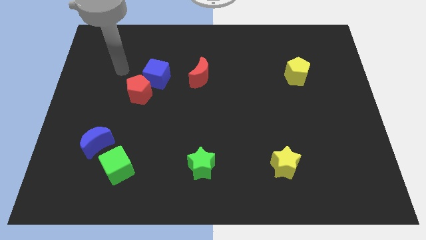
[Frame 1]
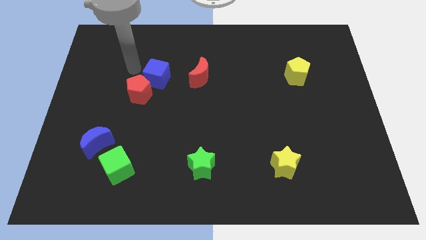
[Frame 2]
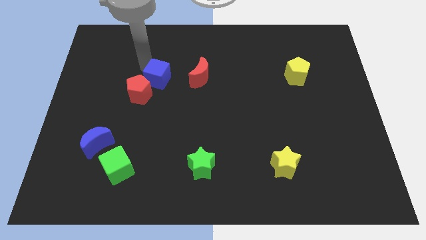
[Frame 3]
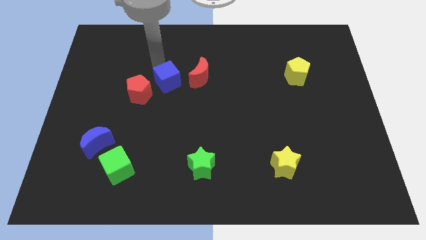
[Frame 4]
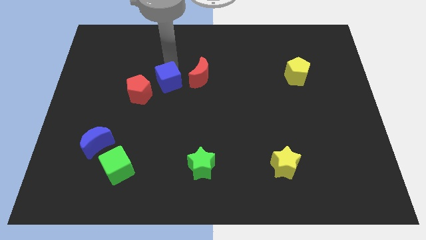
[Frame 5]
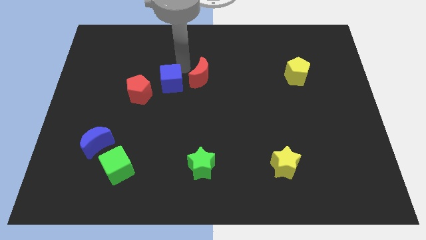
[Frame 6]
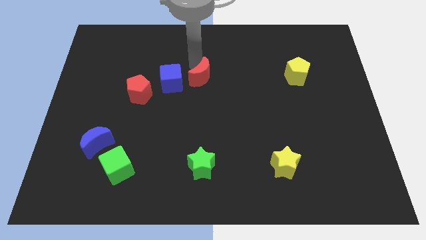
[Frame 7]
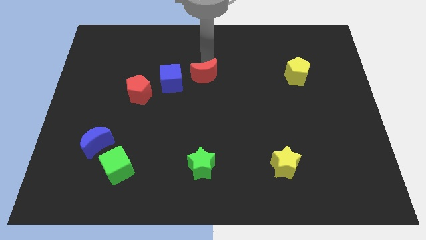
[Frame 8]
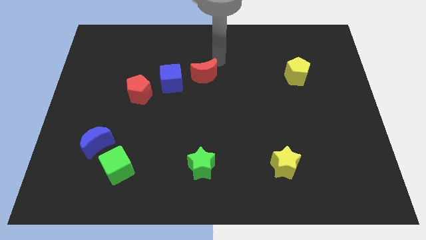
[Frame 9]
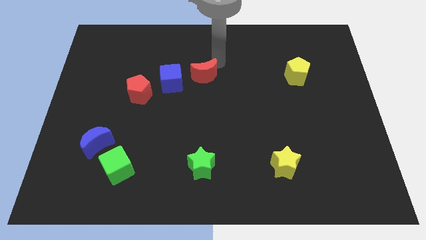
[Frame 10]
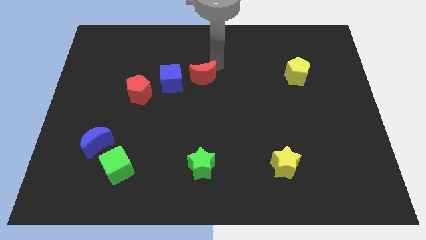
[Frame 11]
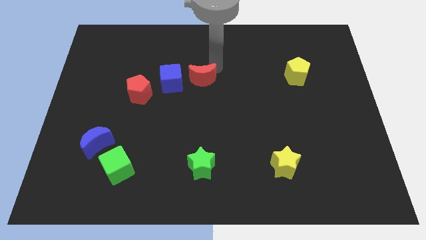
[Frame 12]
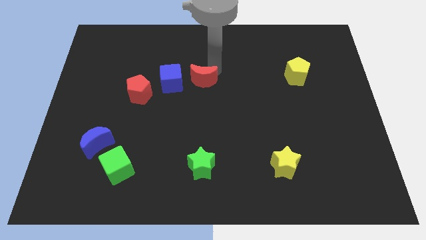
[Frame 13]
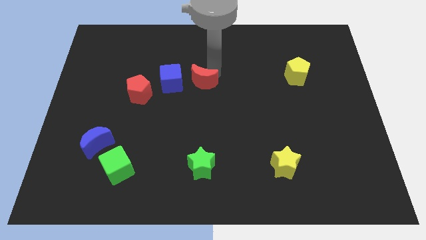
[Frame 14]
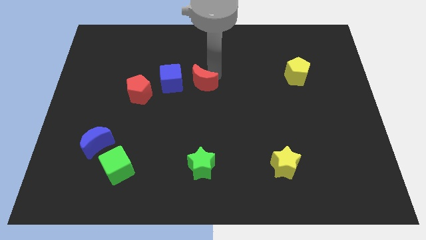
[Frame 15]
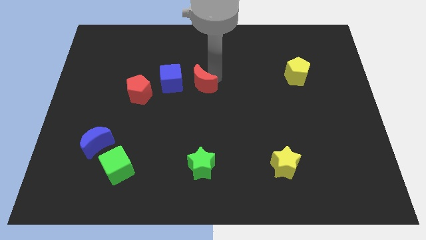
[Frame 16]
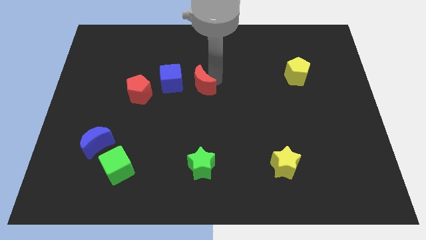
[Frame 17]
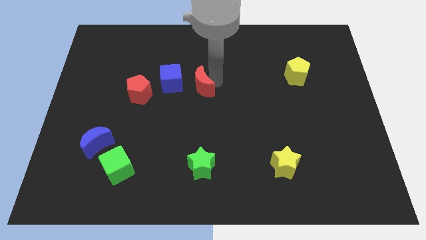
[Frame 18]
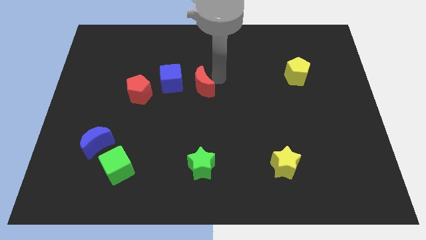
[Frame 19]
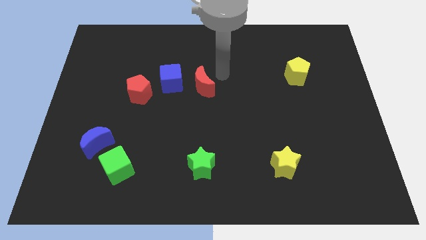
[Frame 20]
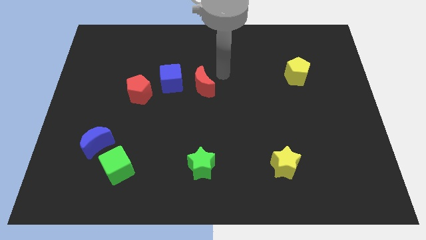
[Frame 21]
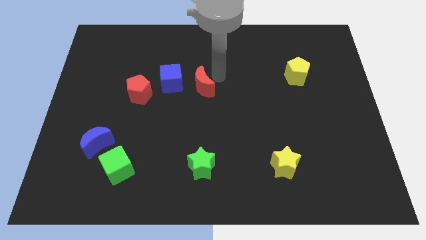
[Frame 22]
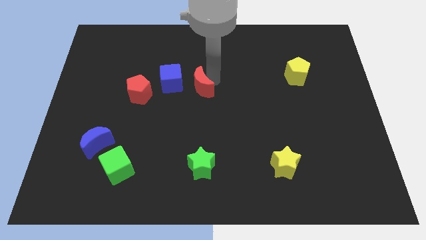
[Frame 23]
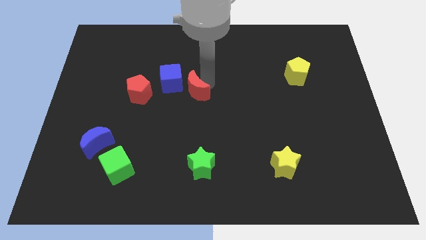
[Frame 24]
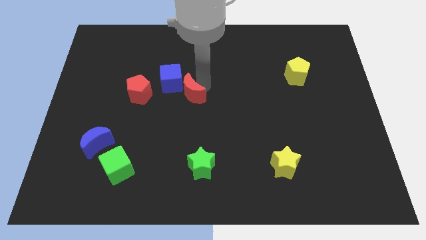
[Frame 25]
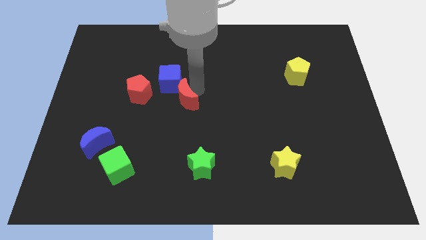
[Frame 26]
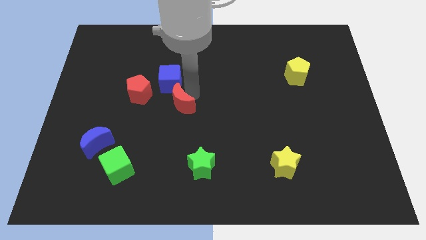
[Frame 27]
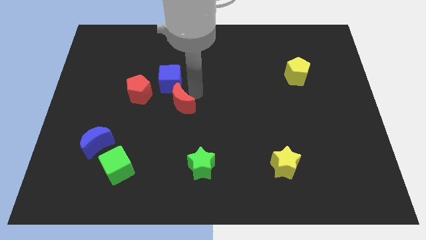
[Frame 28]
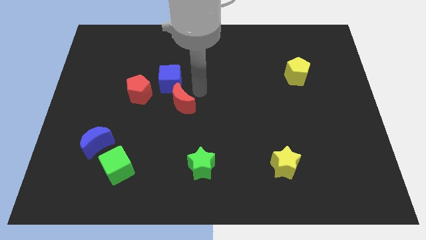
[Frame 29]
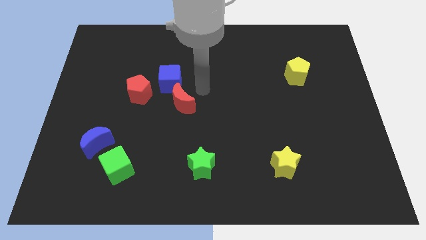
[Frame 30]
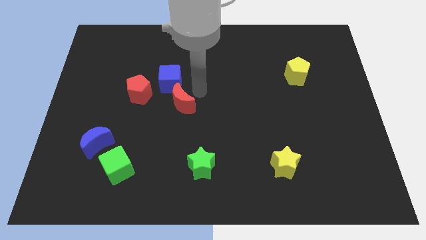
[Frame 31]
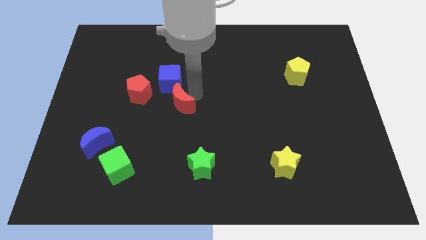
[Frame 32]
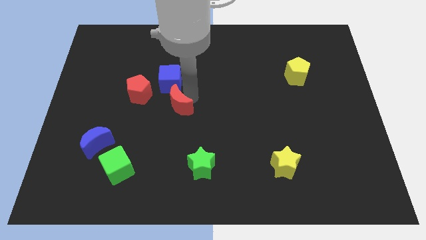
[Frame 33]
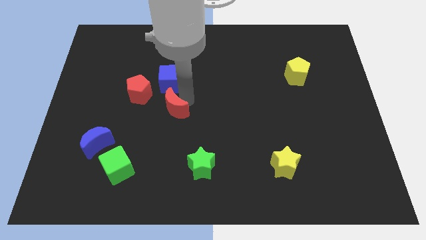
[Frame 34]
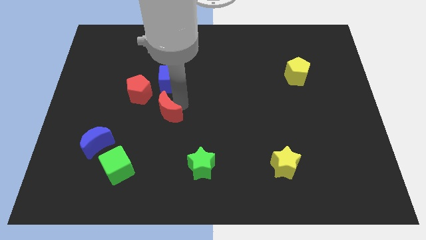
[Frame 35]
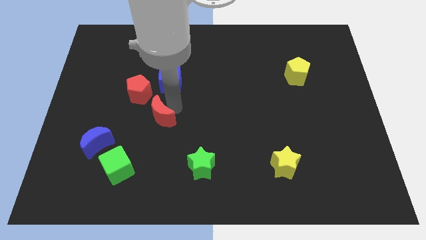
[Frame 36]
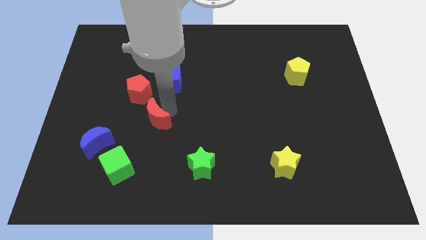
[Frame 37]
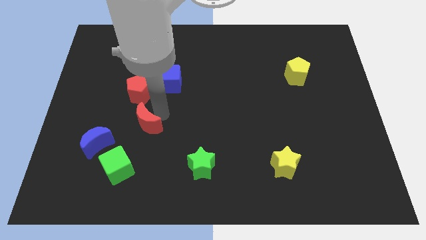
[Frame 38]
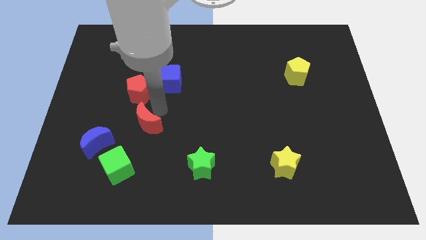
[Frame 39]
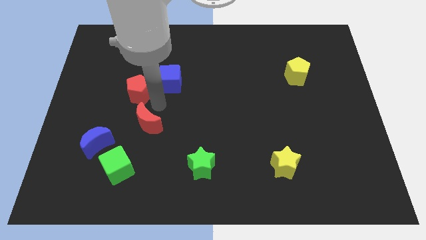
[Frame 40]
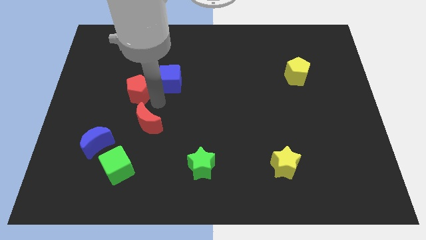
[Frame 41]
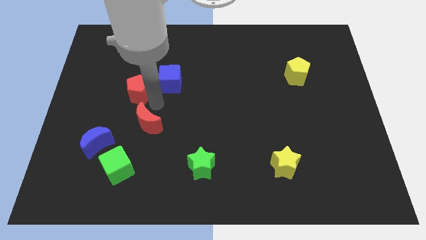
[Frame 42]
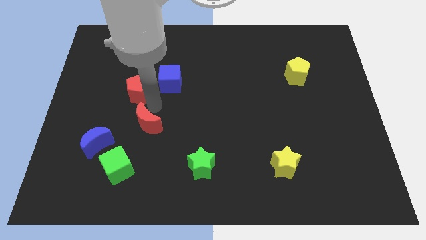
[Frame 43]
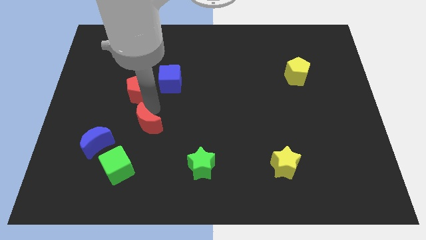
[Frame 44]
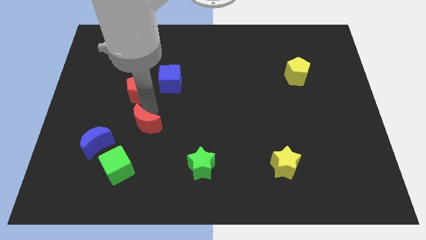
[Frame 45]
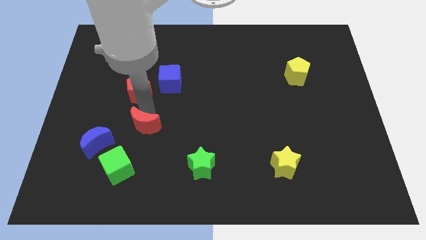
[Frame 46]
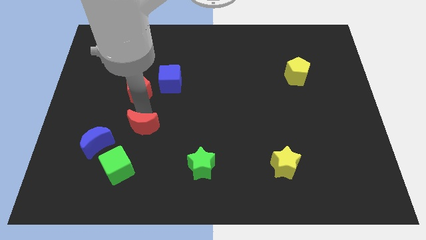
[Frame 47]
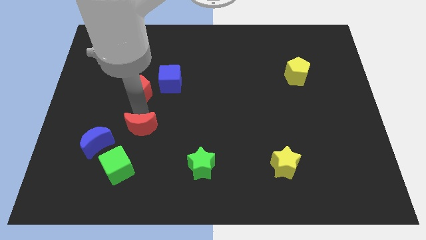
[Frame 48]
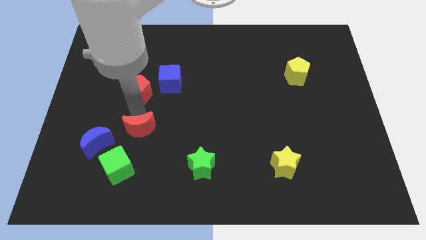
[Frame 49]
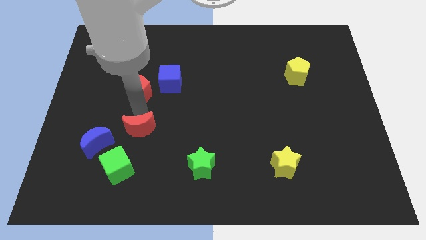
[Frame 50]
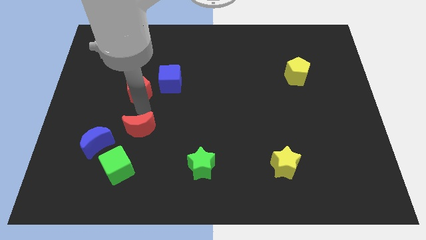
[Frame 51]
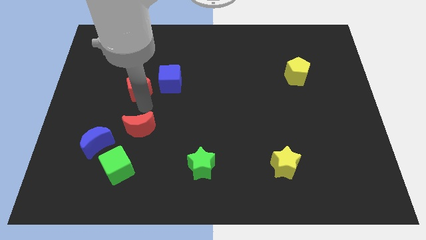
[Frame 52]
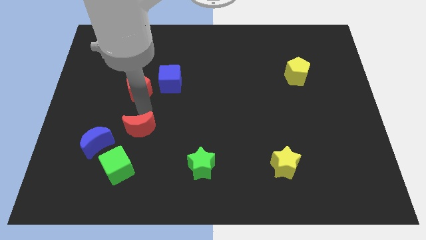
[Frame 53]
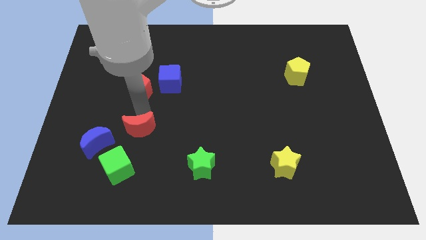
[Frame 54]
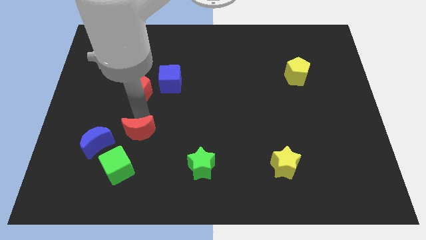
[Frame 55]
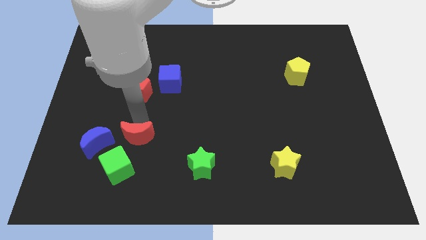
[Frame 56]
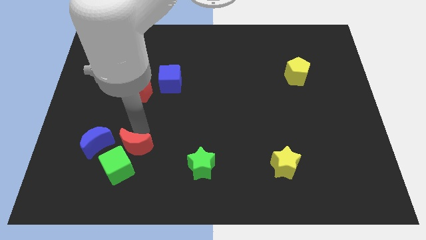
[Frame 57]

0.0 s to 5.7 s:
move the red moon towards the green cube
